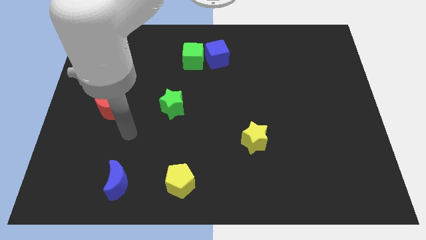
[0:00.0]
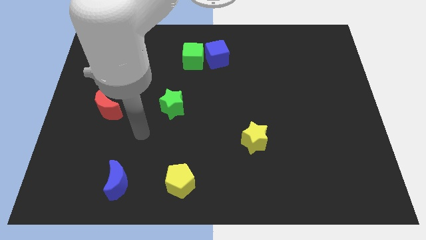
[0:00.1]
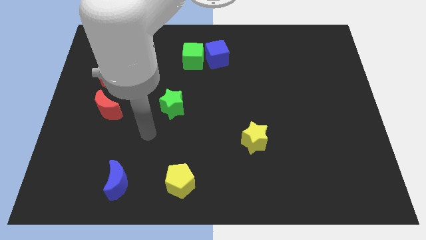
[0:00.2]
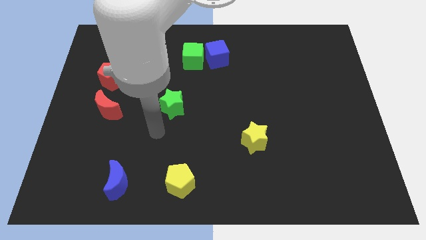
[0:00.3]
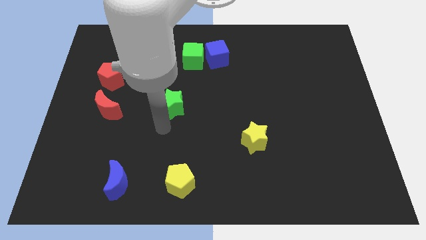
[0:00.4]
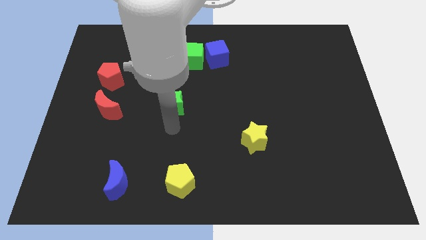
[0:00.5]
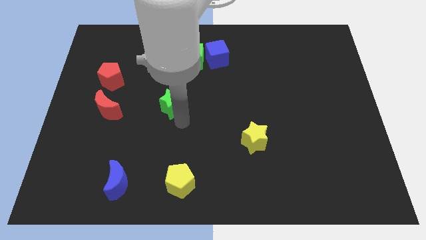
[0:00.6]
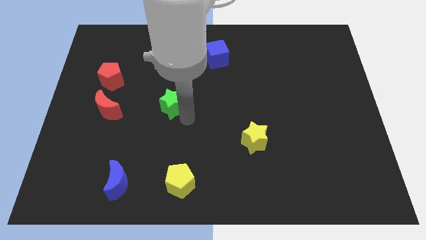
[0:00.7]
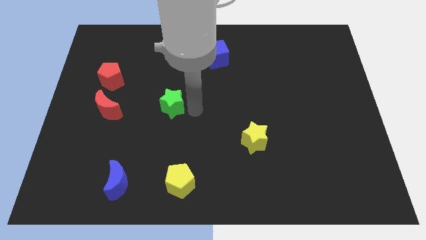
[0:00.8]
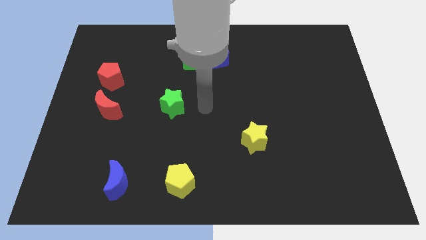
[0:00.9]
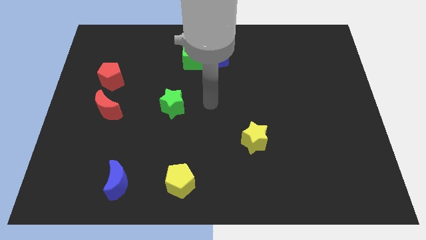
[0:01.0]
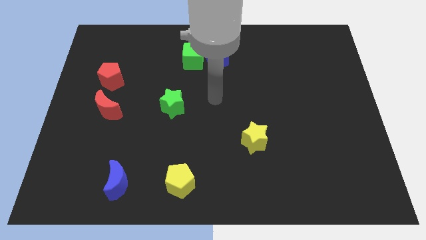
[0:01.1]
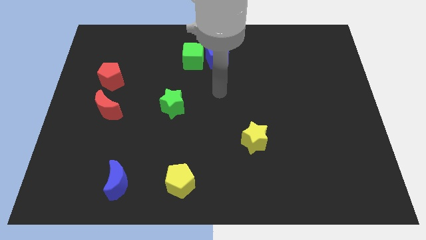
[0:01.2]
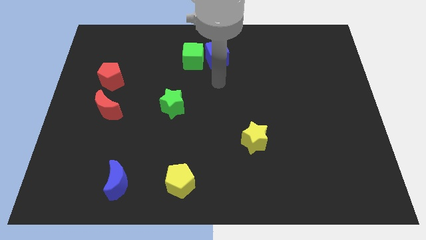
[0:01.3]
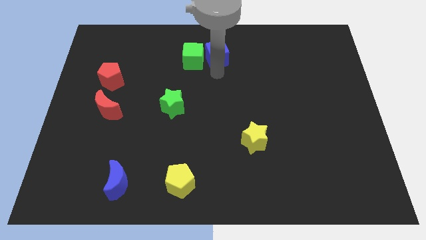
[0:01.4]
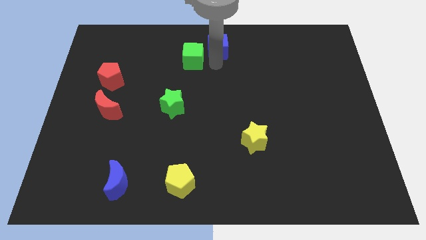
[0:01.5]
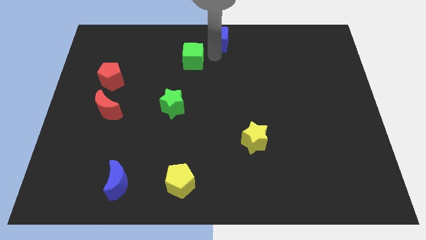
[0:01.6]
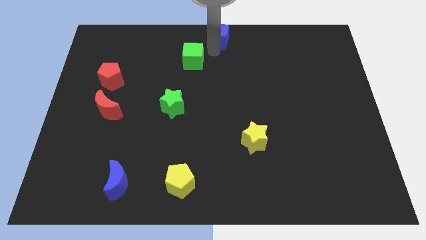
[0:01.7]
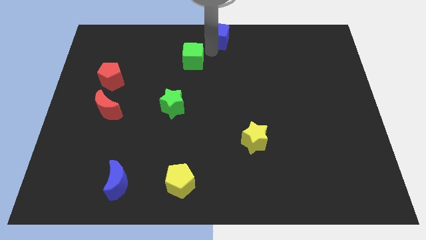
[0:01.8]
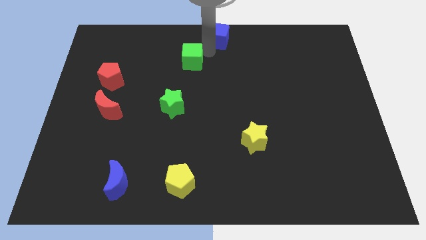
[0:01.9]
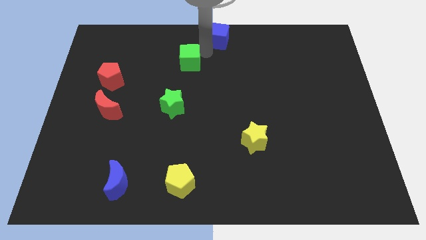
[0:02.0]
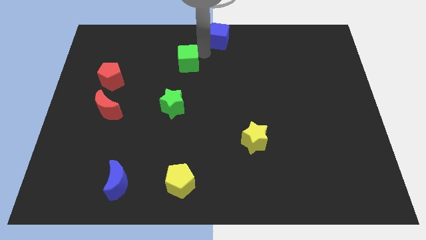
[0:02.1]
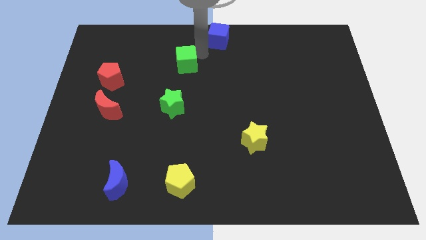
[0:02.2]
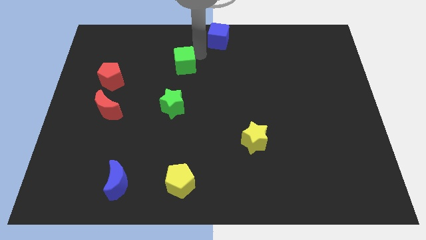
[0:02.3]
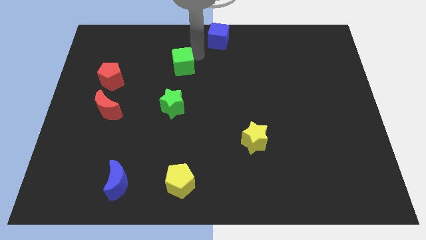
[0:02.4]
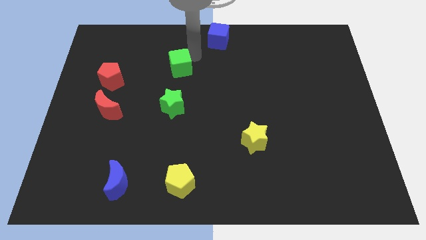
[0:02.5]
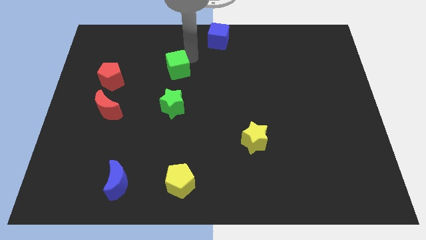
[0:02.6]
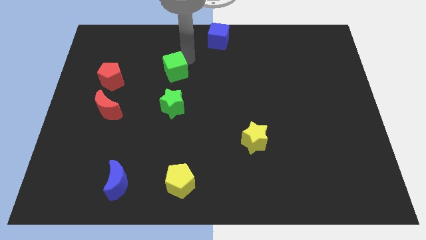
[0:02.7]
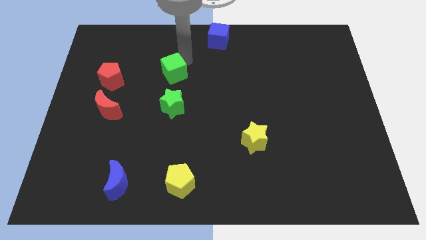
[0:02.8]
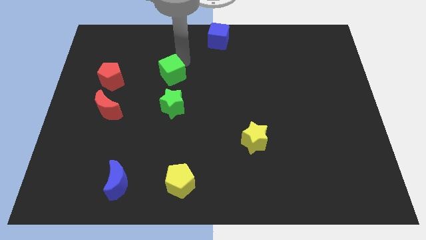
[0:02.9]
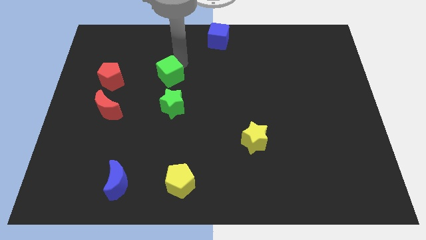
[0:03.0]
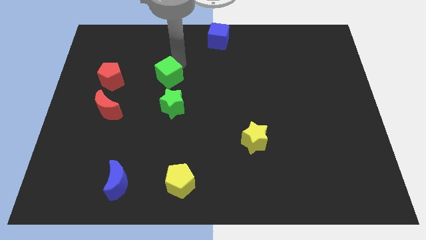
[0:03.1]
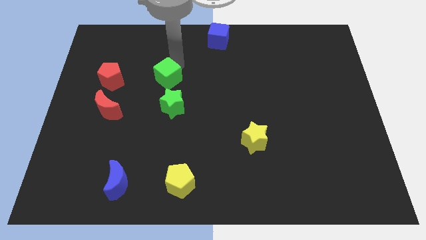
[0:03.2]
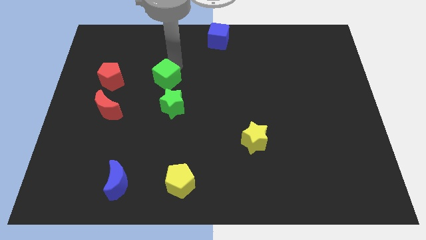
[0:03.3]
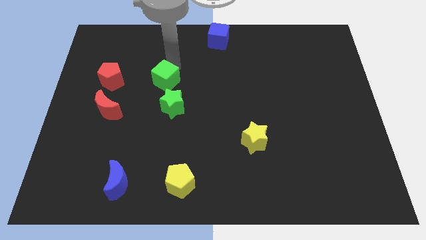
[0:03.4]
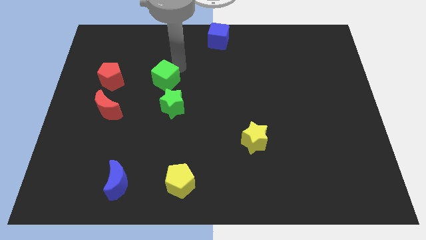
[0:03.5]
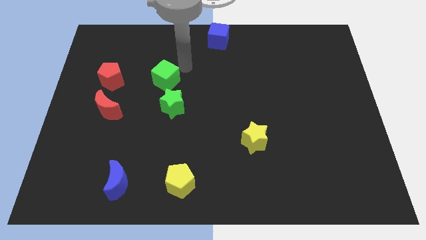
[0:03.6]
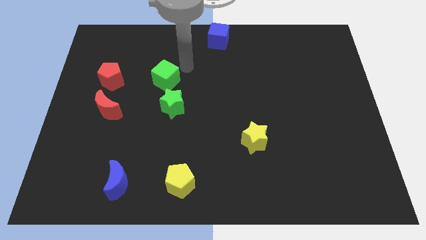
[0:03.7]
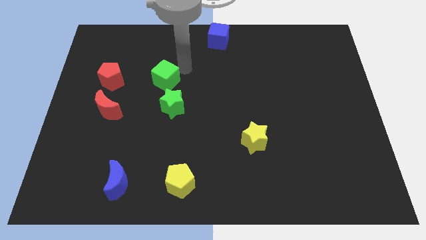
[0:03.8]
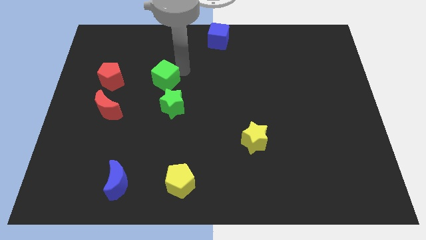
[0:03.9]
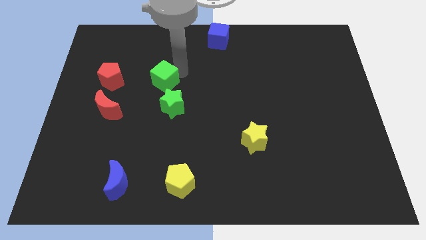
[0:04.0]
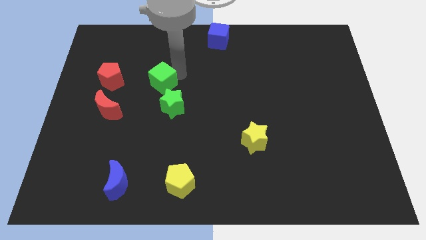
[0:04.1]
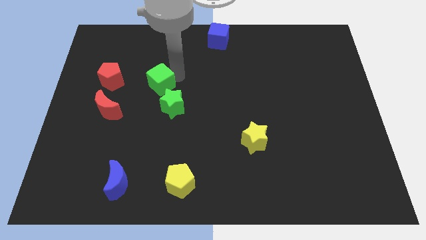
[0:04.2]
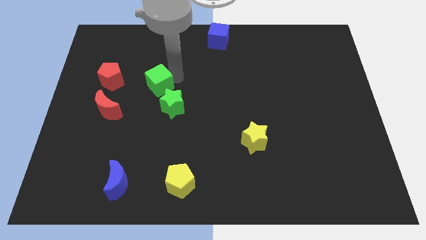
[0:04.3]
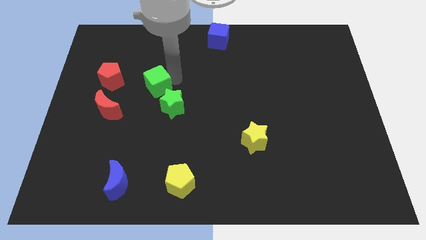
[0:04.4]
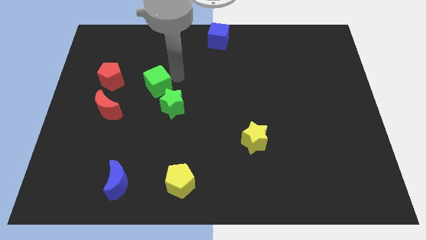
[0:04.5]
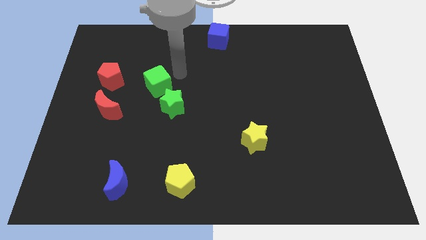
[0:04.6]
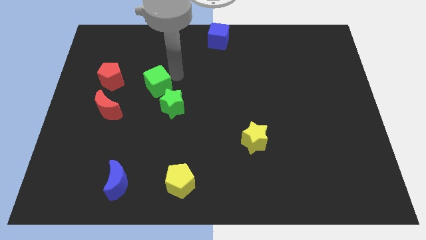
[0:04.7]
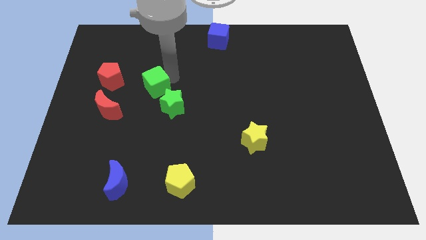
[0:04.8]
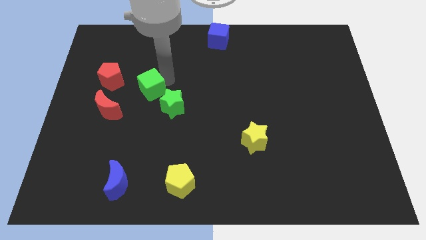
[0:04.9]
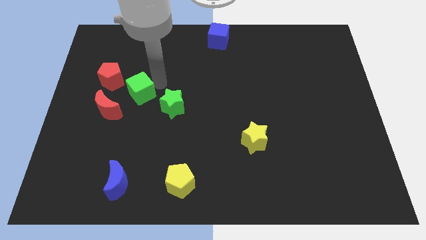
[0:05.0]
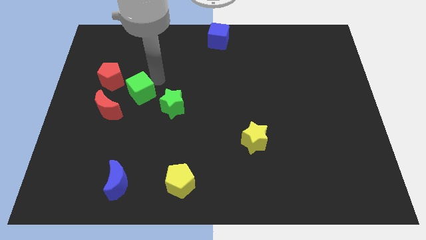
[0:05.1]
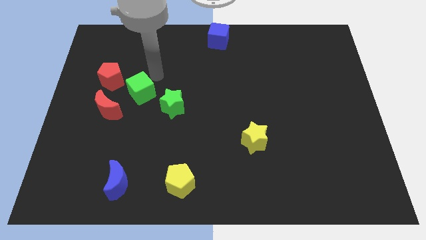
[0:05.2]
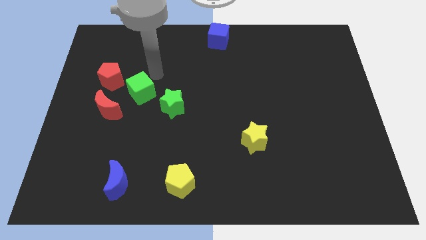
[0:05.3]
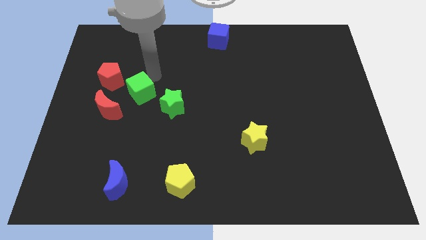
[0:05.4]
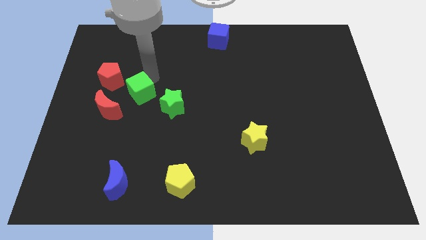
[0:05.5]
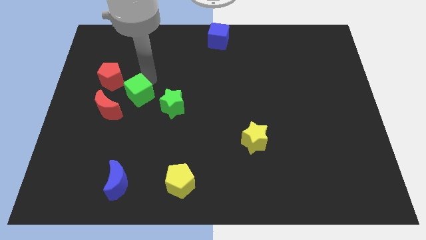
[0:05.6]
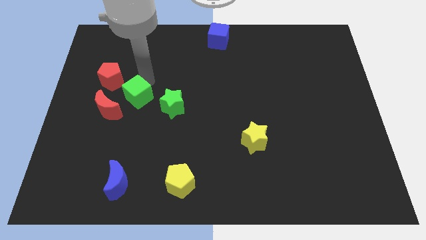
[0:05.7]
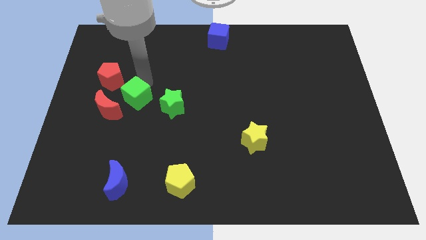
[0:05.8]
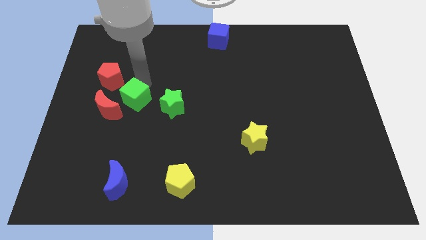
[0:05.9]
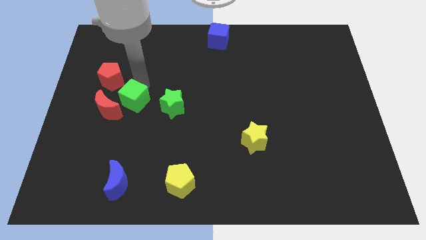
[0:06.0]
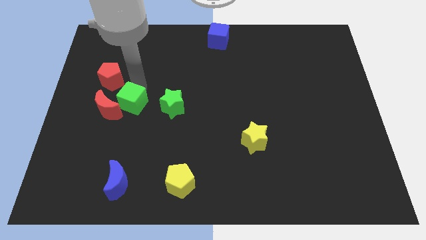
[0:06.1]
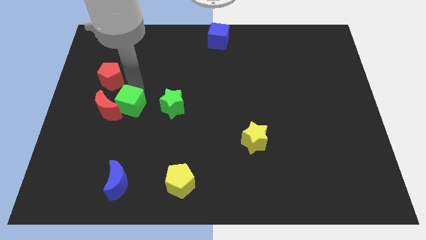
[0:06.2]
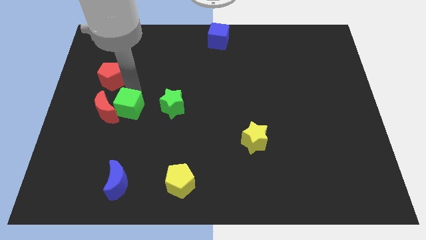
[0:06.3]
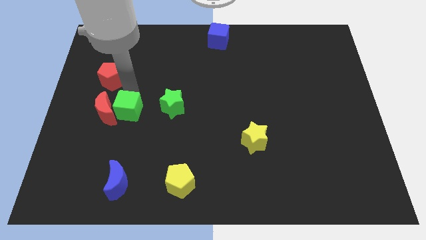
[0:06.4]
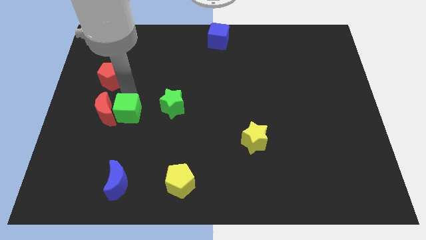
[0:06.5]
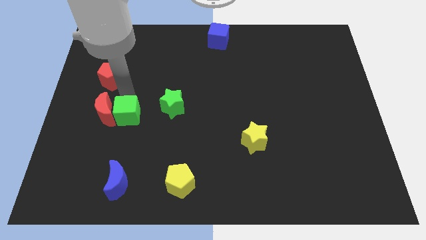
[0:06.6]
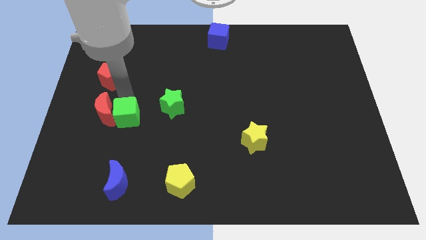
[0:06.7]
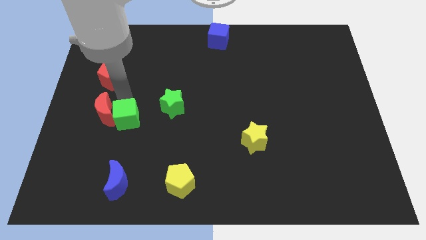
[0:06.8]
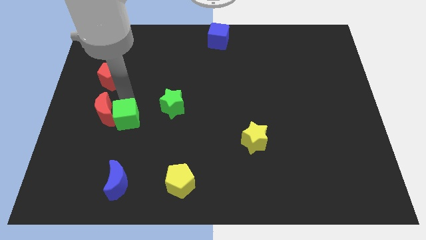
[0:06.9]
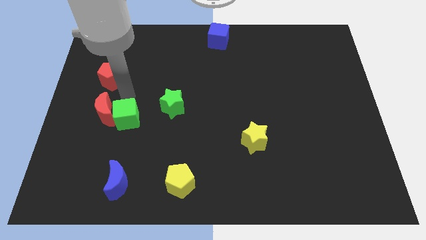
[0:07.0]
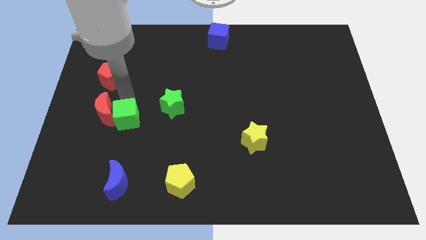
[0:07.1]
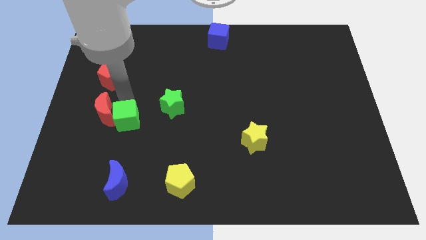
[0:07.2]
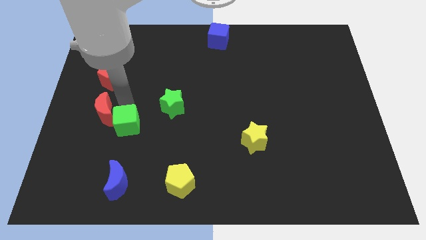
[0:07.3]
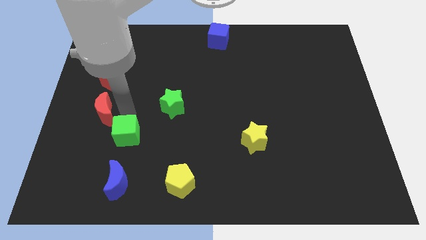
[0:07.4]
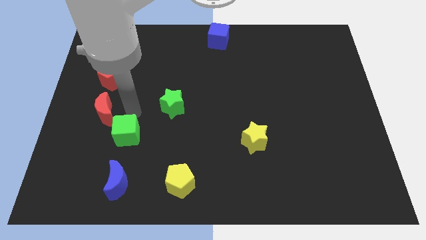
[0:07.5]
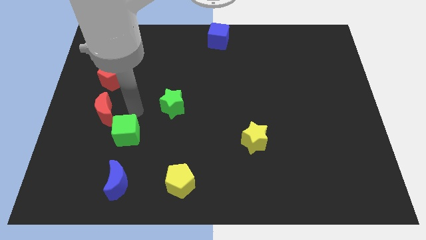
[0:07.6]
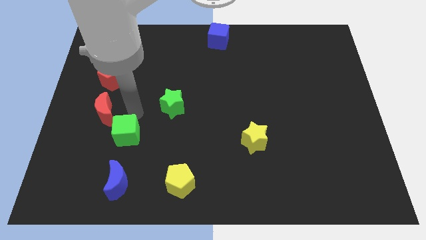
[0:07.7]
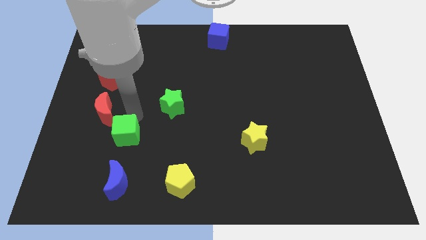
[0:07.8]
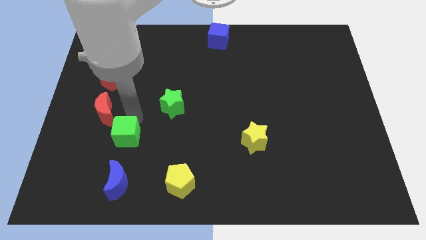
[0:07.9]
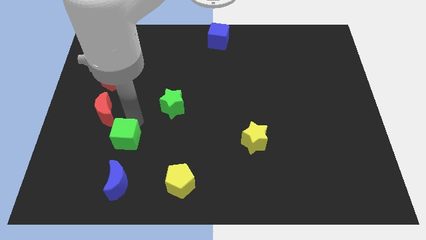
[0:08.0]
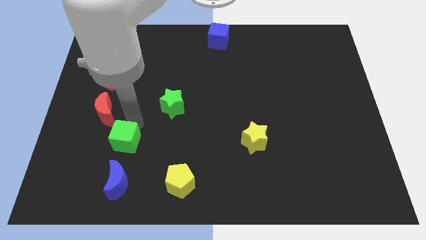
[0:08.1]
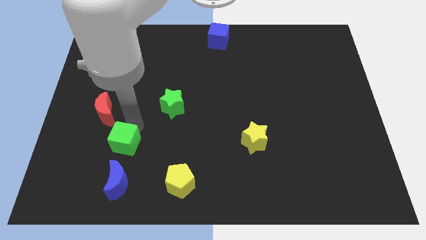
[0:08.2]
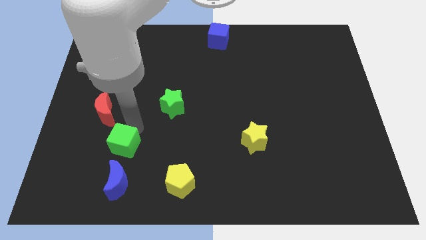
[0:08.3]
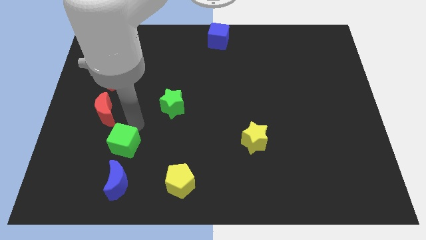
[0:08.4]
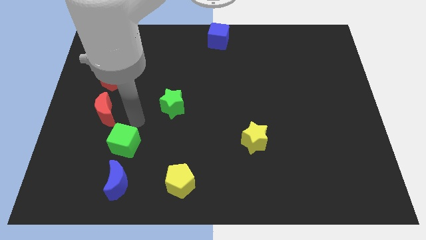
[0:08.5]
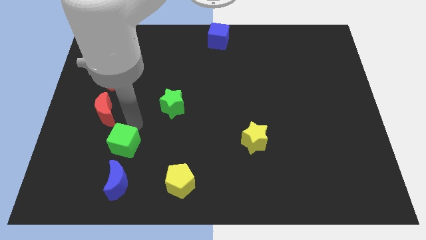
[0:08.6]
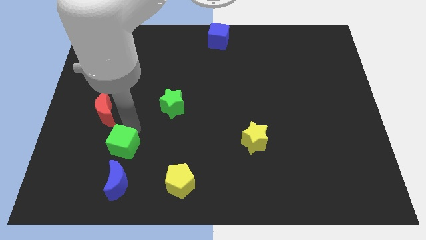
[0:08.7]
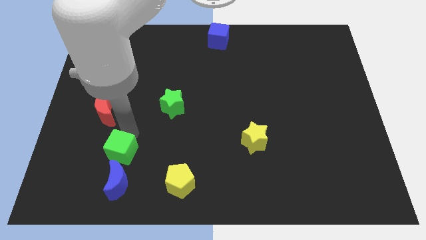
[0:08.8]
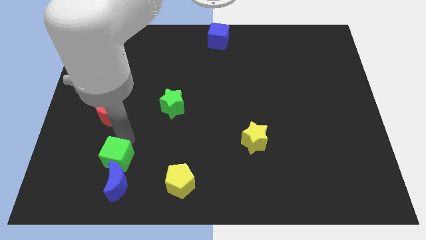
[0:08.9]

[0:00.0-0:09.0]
move the green cube towards the blue moon
